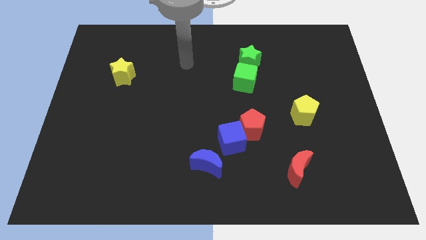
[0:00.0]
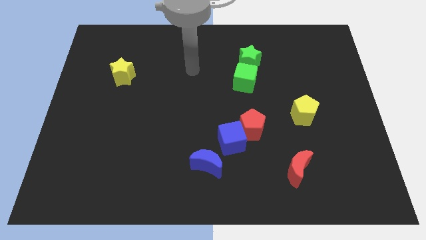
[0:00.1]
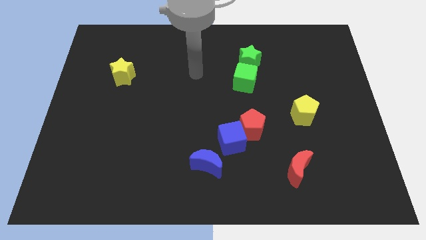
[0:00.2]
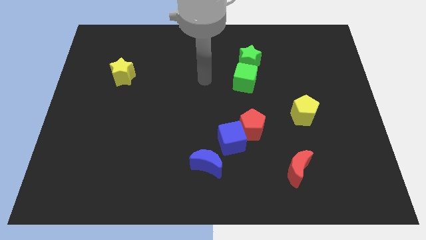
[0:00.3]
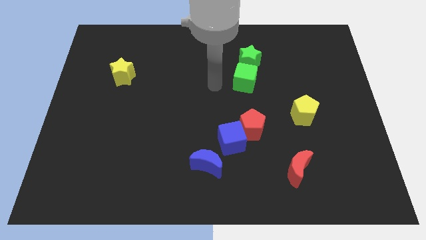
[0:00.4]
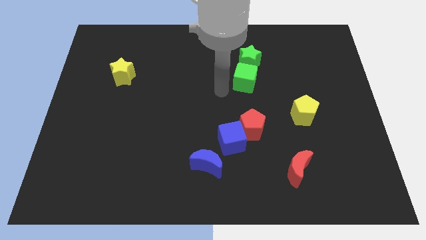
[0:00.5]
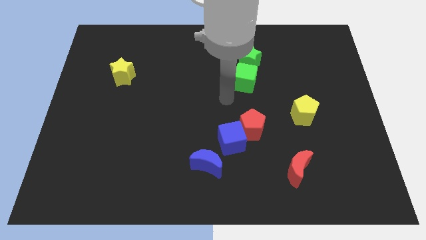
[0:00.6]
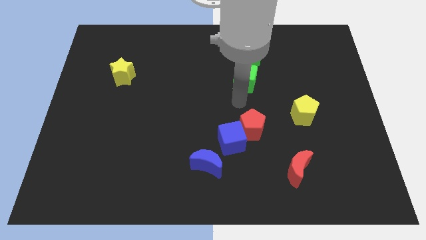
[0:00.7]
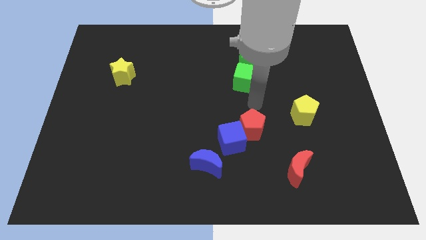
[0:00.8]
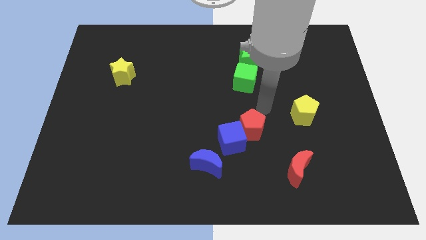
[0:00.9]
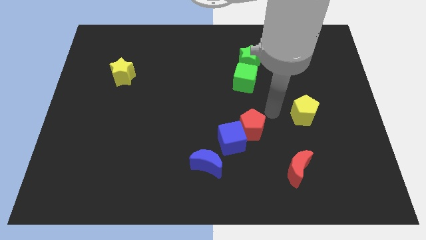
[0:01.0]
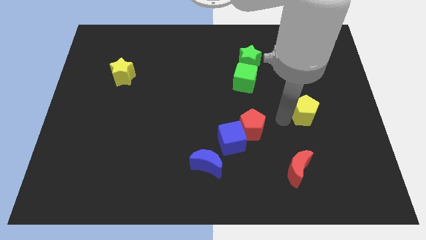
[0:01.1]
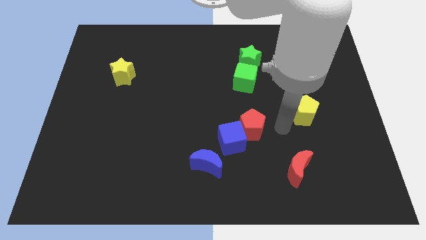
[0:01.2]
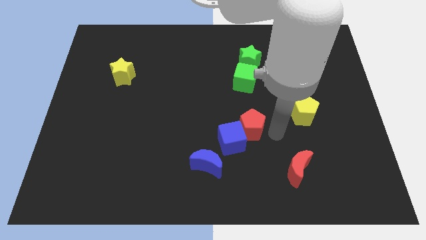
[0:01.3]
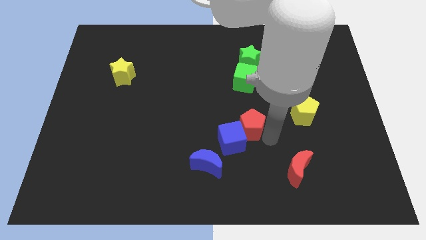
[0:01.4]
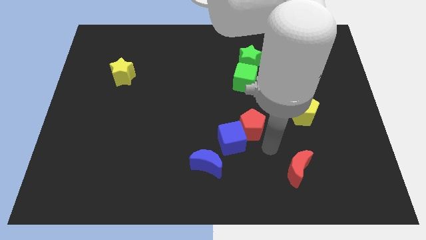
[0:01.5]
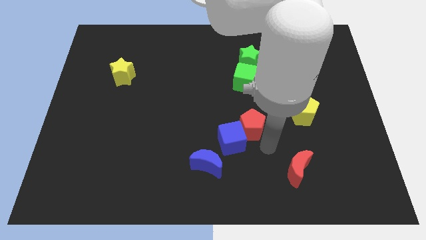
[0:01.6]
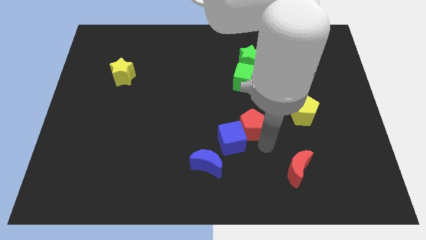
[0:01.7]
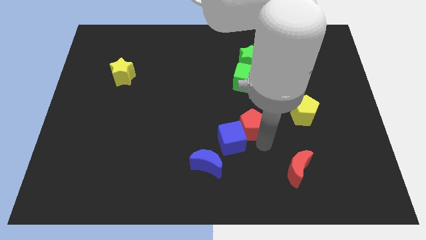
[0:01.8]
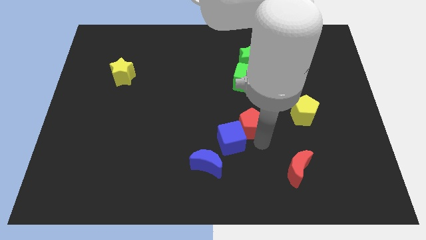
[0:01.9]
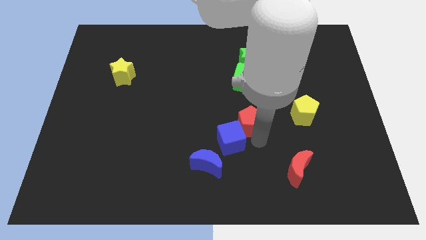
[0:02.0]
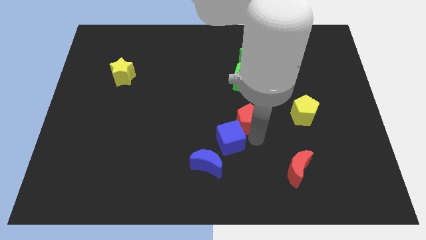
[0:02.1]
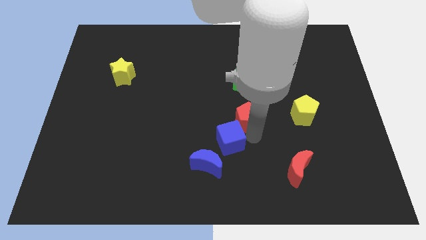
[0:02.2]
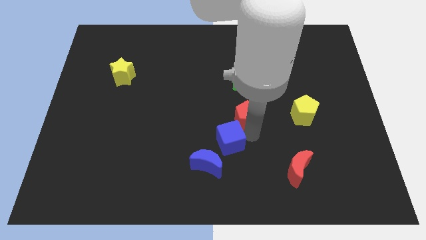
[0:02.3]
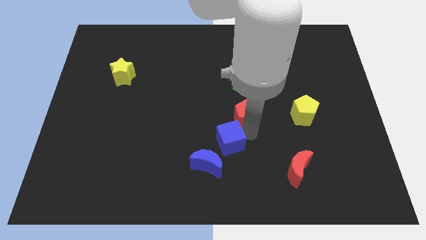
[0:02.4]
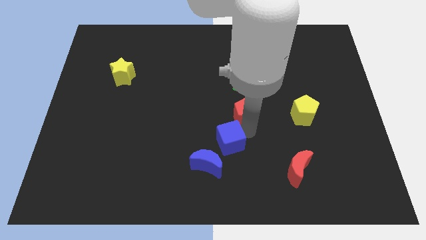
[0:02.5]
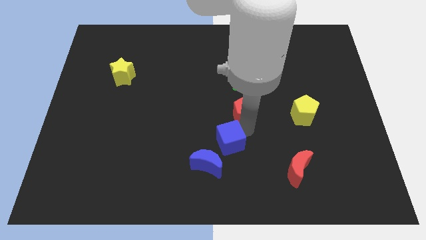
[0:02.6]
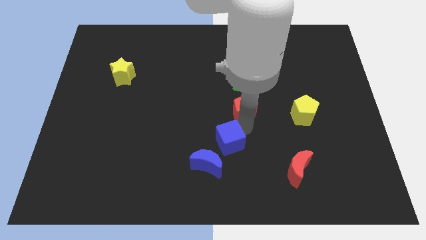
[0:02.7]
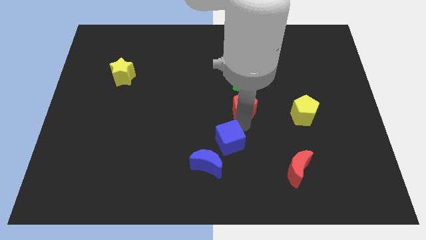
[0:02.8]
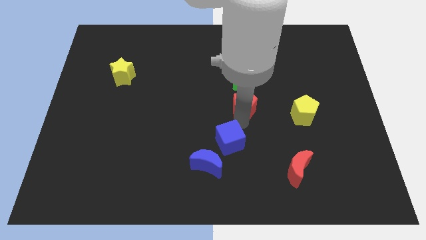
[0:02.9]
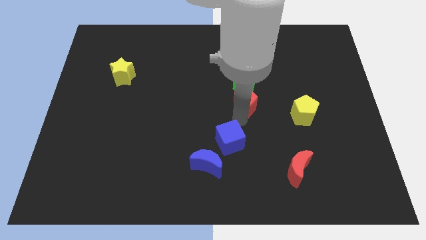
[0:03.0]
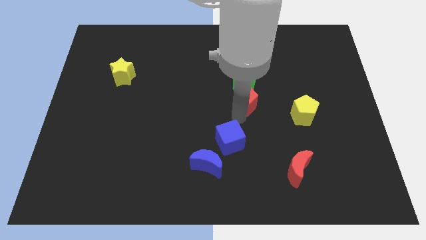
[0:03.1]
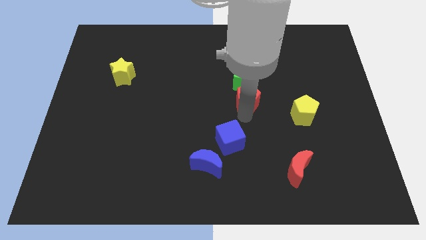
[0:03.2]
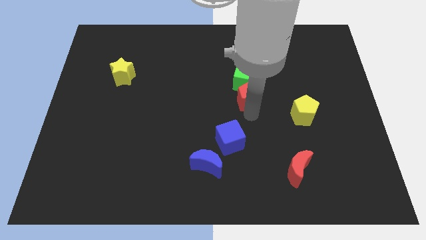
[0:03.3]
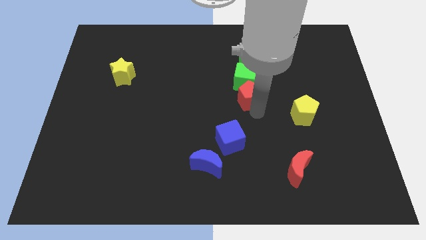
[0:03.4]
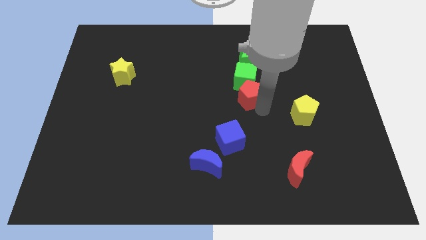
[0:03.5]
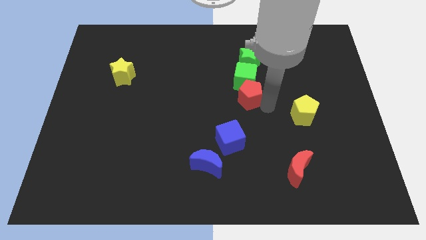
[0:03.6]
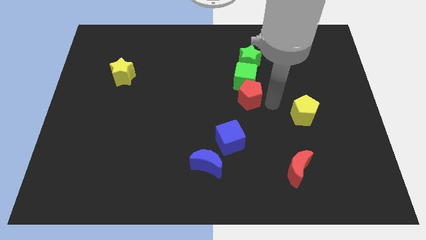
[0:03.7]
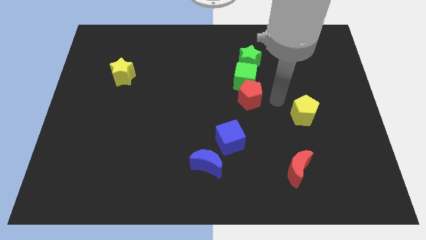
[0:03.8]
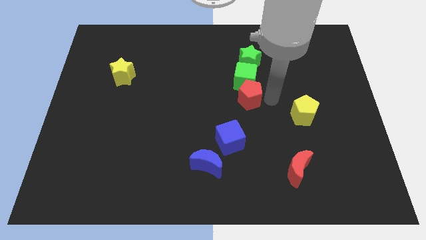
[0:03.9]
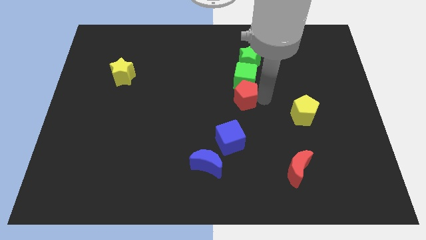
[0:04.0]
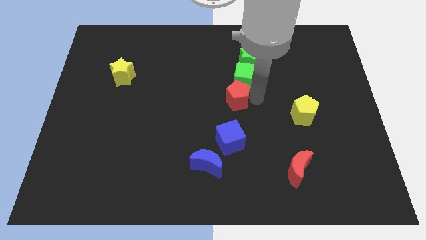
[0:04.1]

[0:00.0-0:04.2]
slightly push the red pentagon up and to the left diagonally

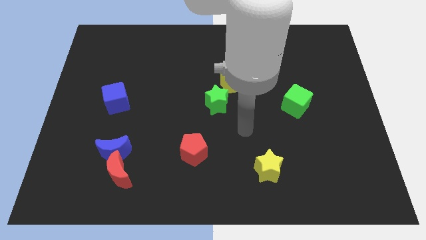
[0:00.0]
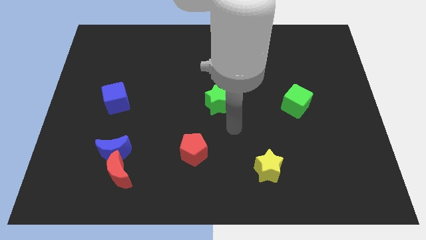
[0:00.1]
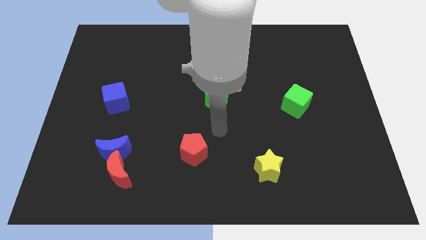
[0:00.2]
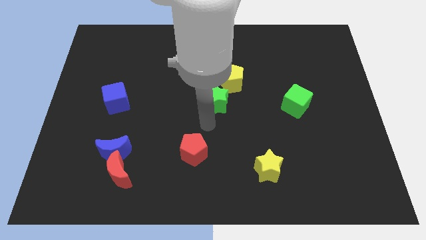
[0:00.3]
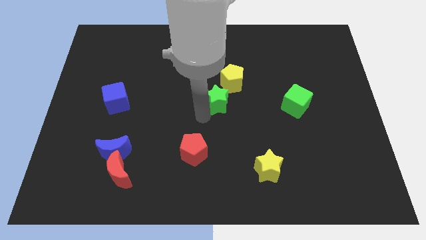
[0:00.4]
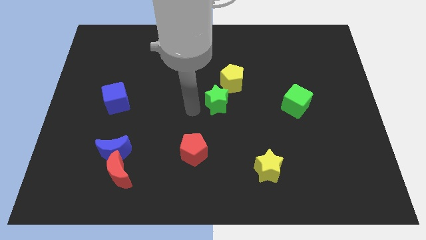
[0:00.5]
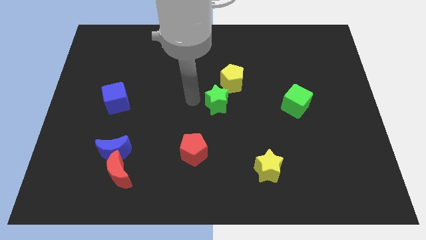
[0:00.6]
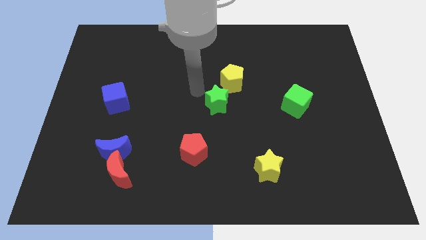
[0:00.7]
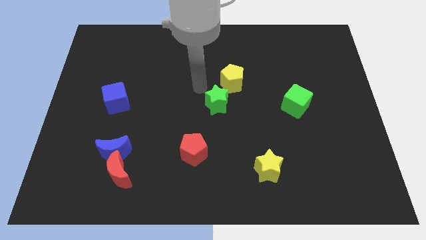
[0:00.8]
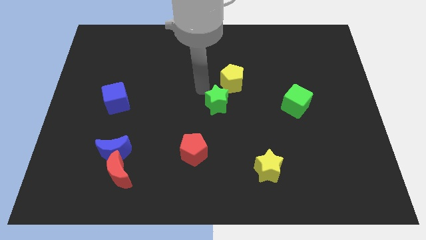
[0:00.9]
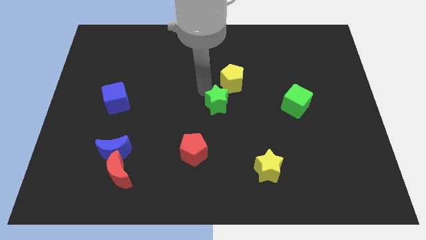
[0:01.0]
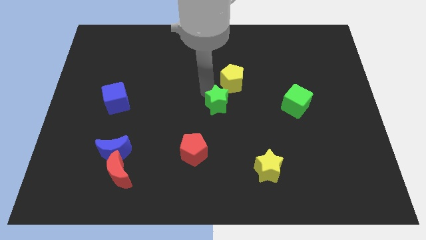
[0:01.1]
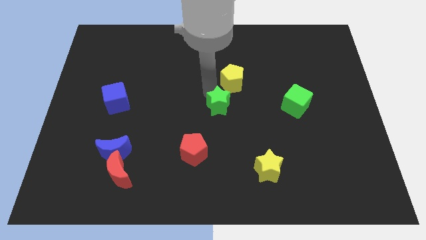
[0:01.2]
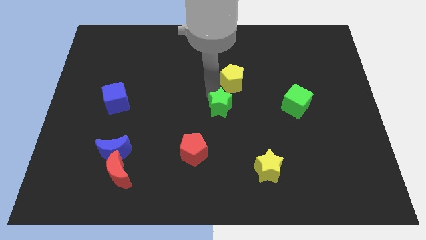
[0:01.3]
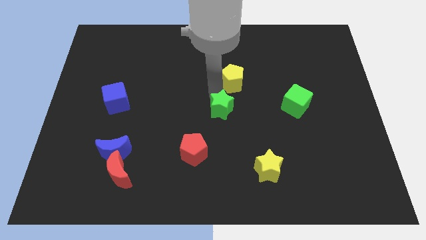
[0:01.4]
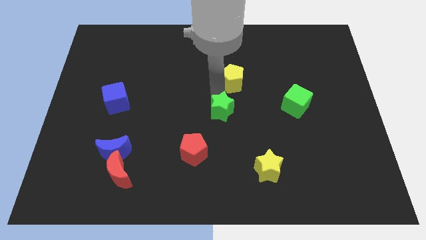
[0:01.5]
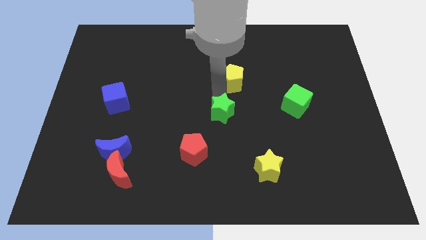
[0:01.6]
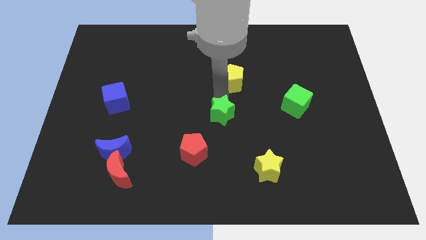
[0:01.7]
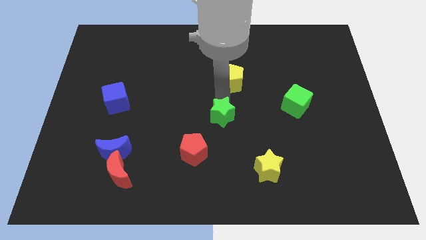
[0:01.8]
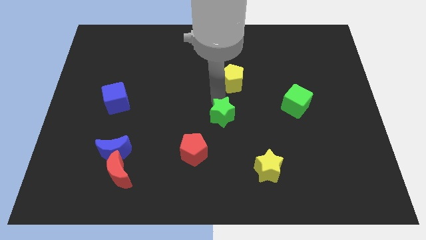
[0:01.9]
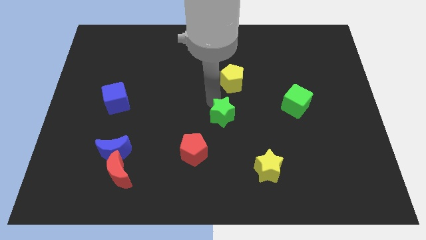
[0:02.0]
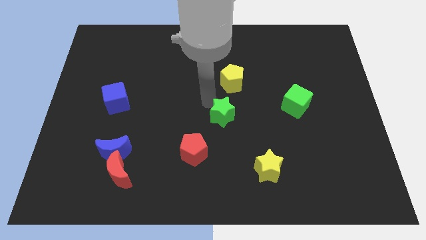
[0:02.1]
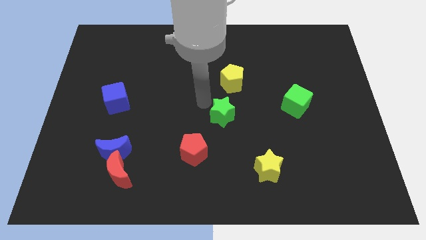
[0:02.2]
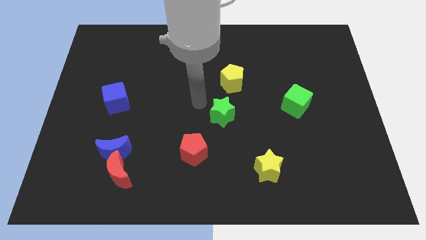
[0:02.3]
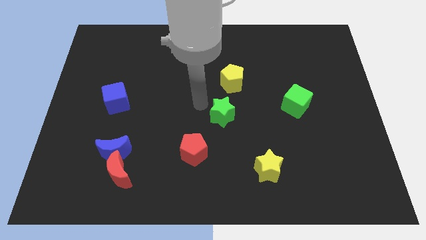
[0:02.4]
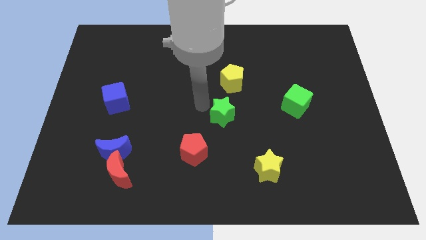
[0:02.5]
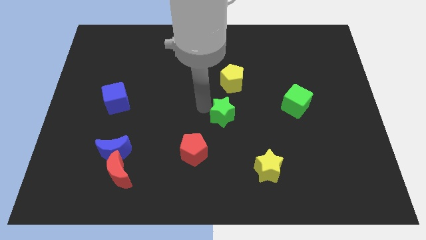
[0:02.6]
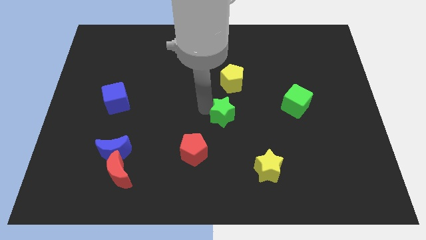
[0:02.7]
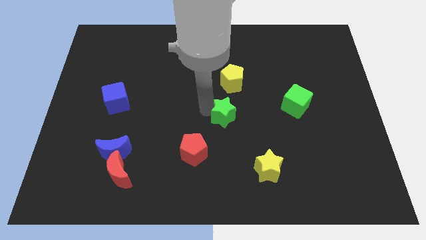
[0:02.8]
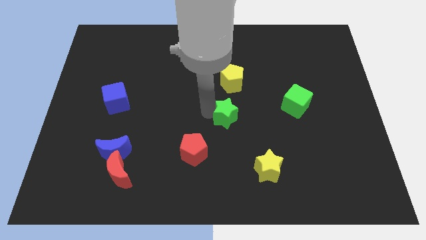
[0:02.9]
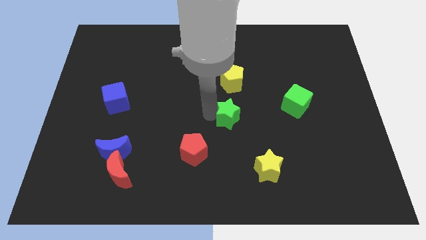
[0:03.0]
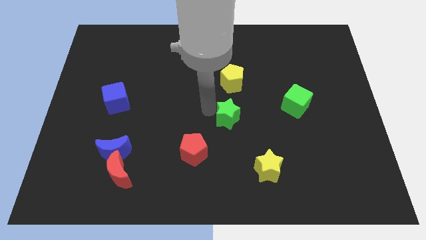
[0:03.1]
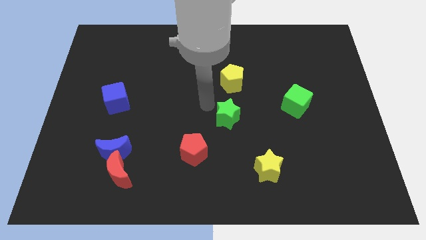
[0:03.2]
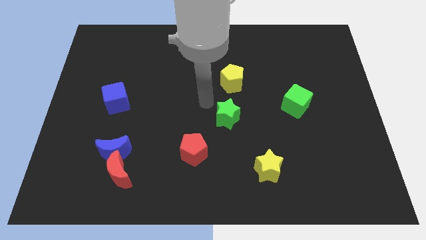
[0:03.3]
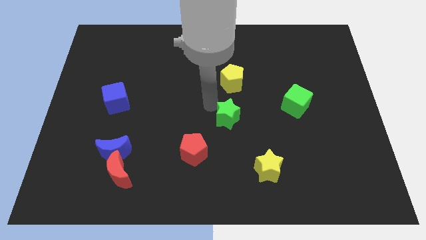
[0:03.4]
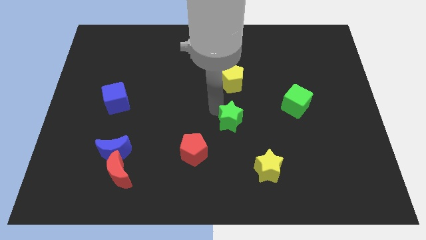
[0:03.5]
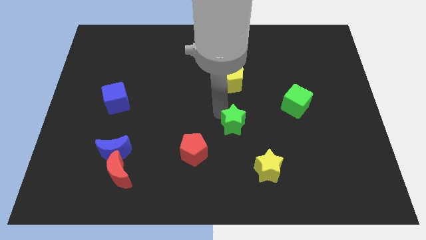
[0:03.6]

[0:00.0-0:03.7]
slide the green star a little bit downwards and to the right diagonally
